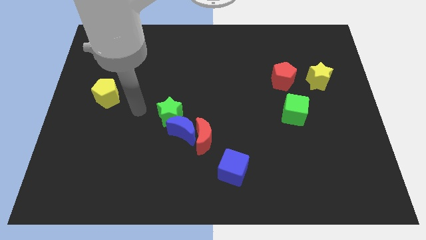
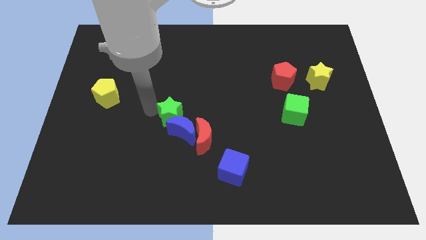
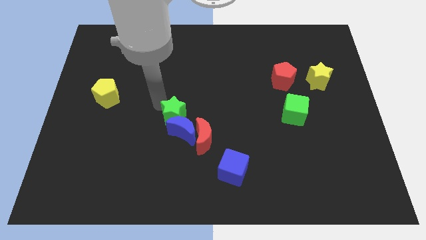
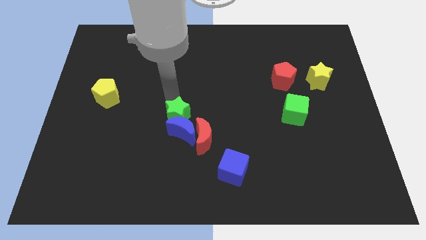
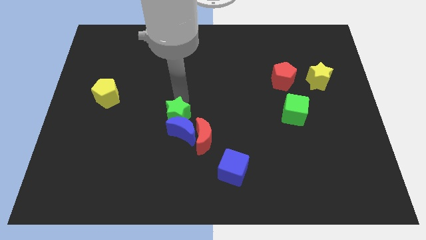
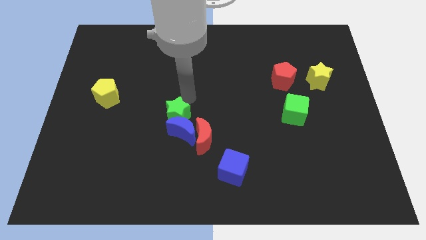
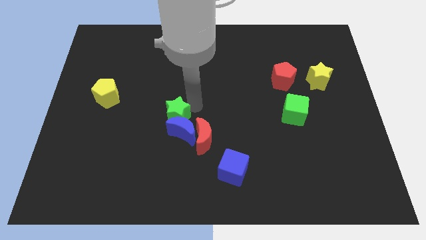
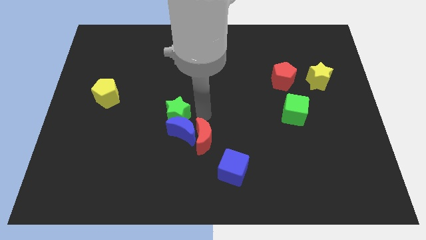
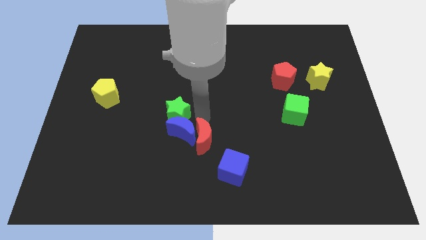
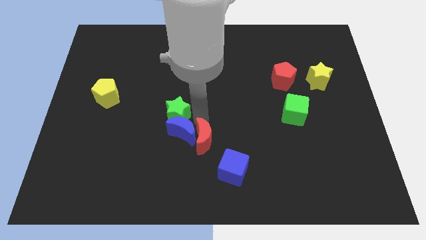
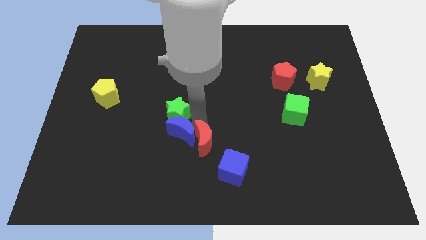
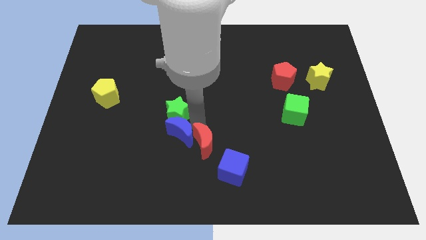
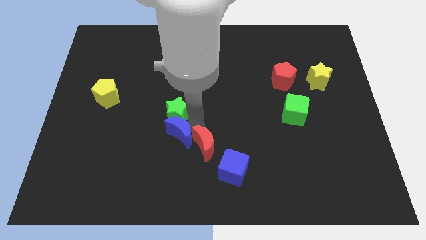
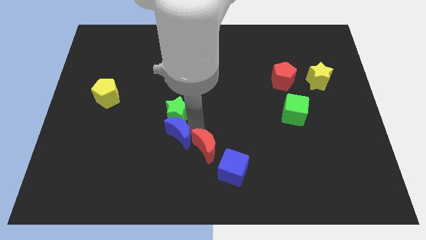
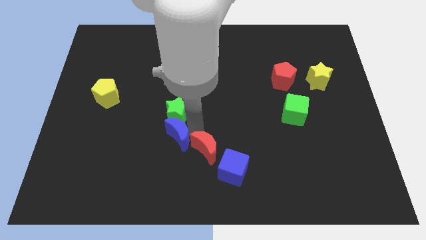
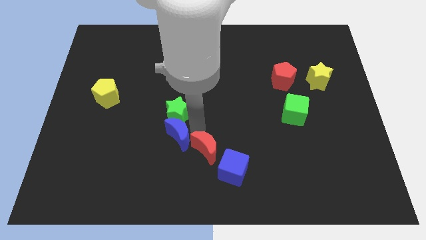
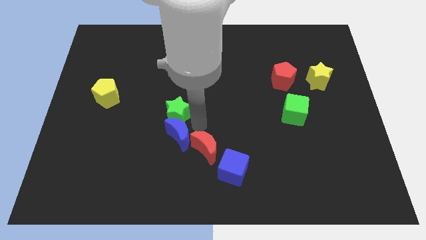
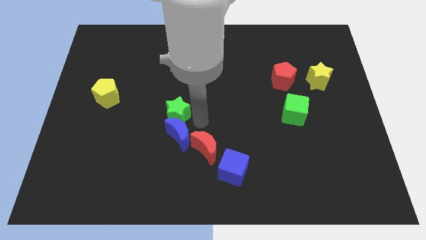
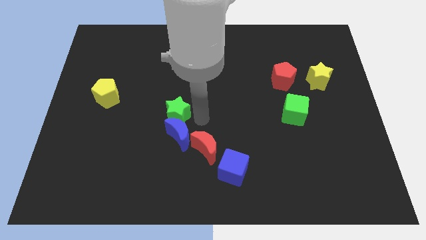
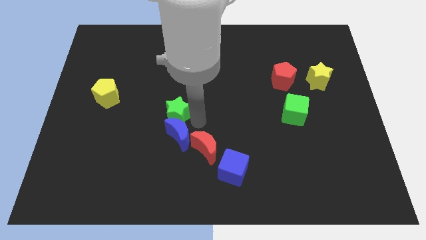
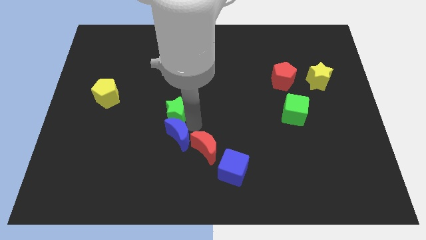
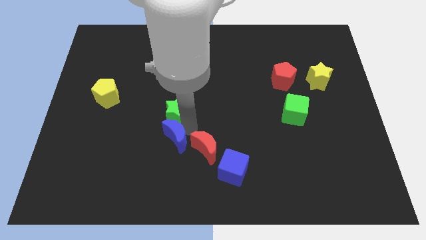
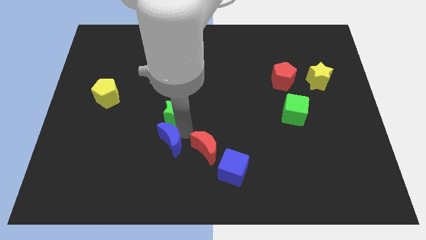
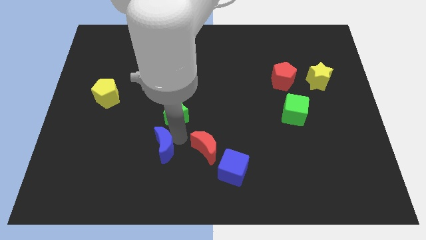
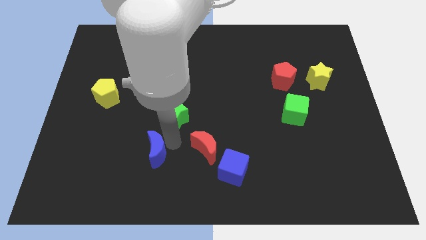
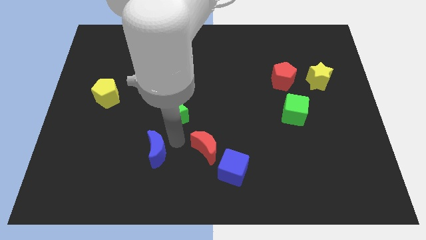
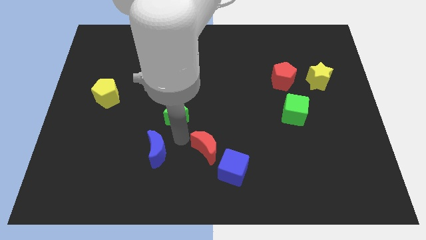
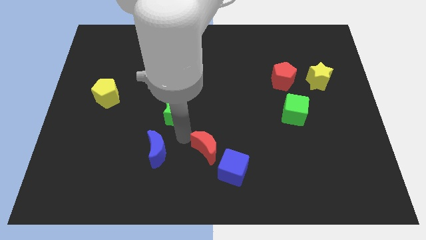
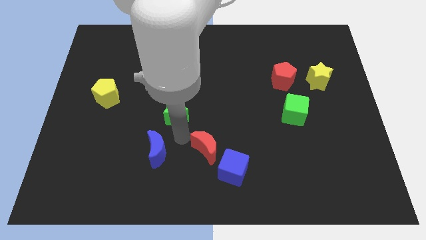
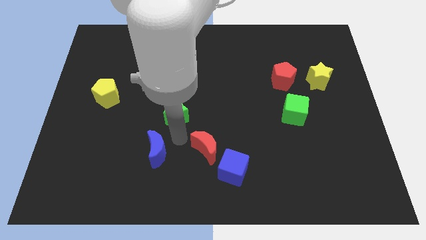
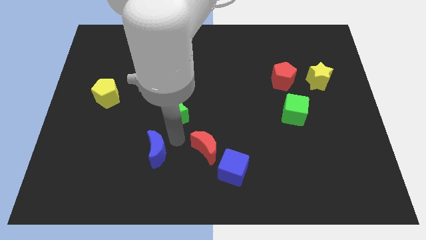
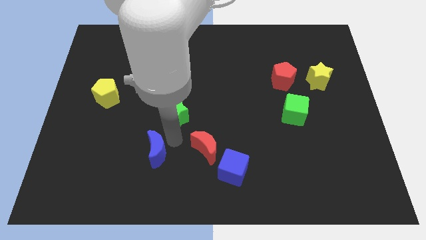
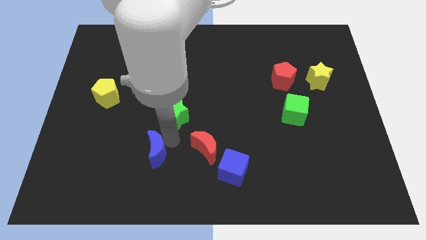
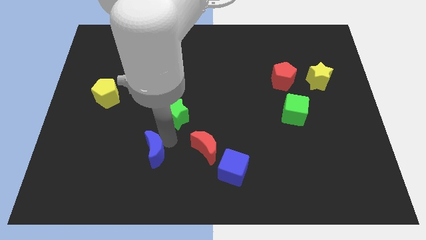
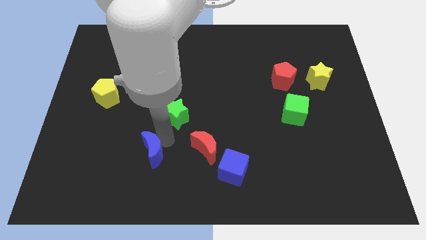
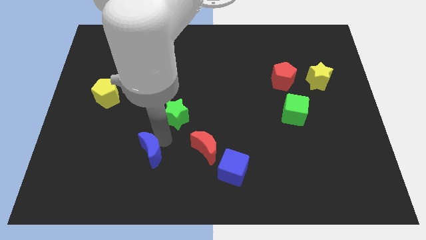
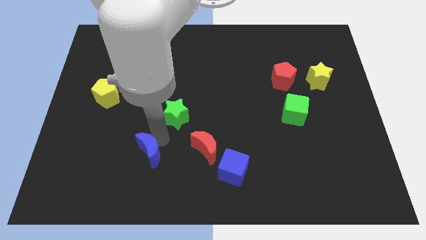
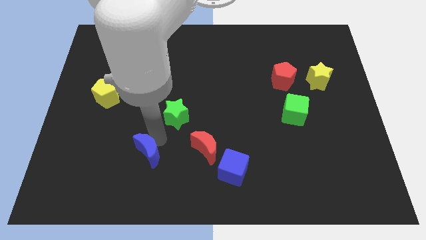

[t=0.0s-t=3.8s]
move the blue moon away from the red moon and green star

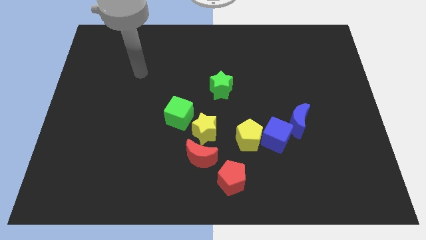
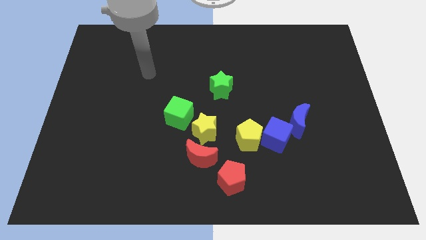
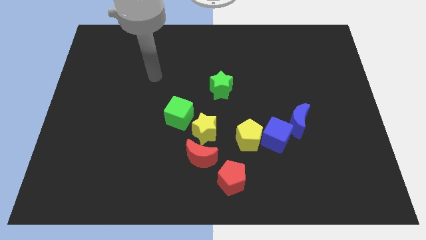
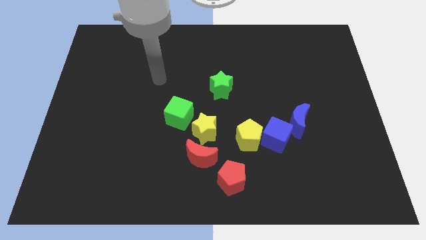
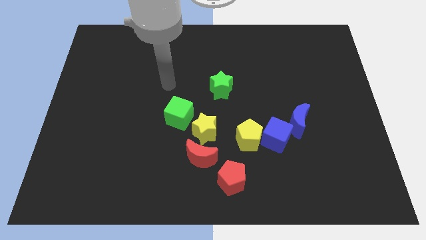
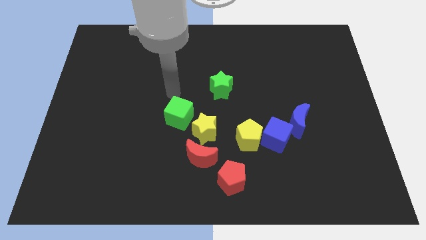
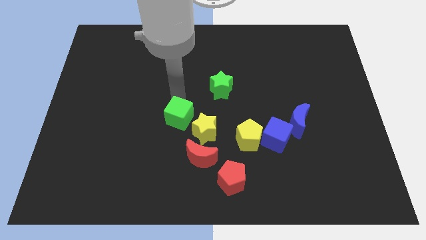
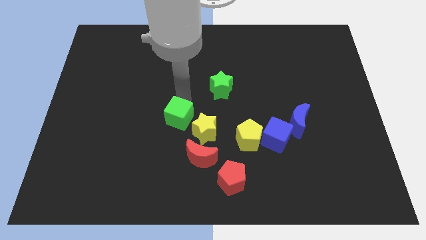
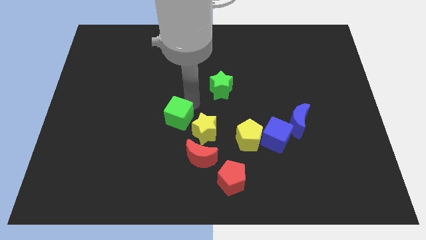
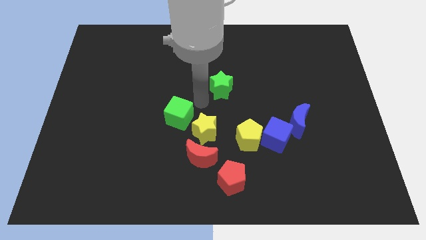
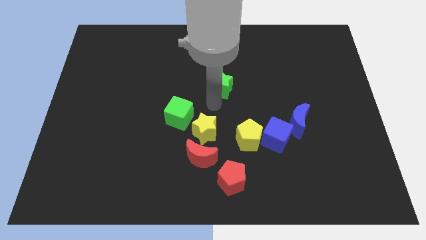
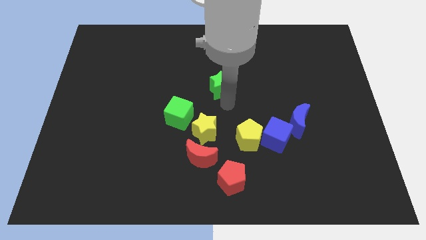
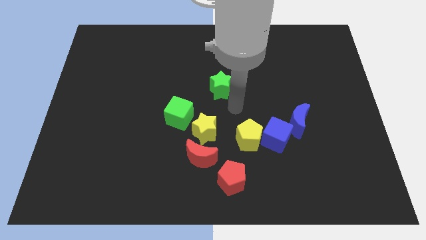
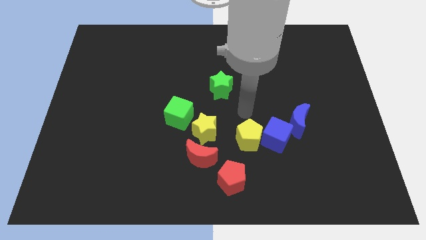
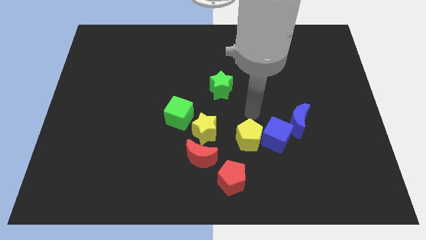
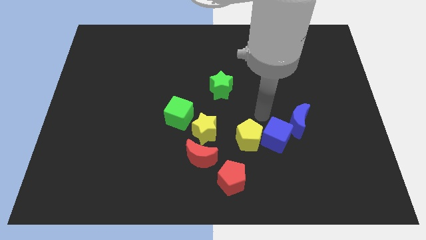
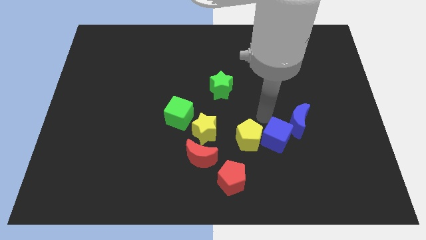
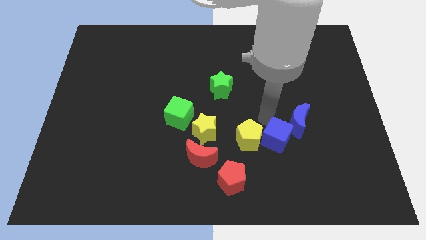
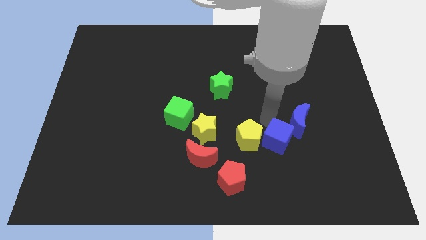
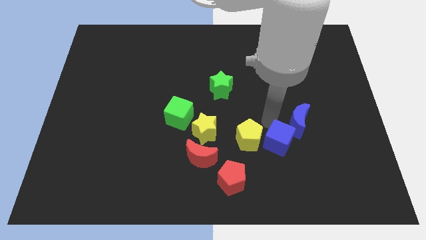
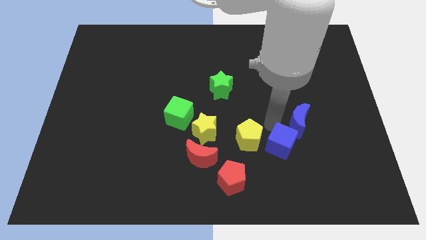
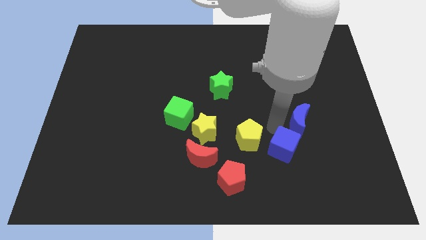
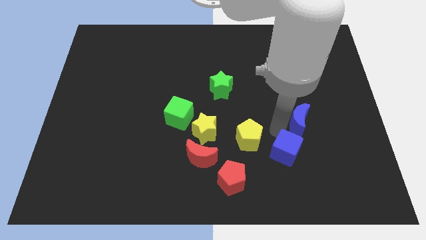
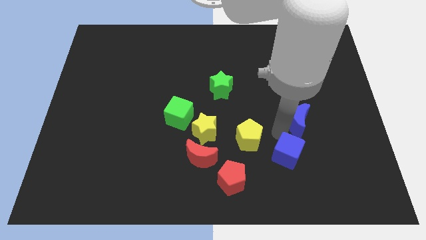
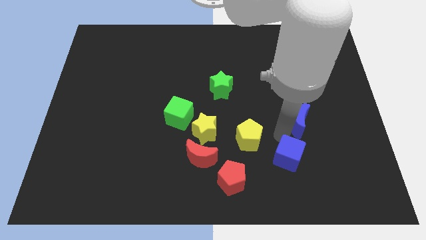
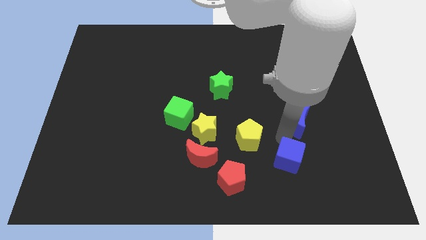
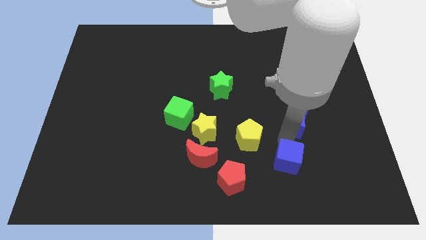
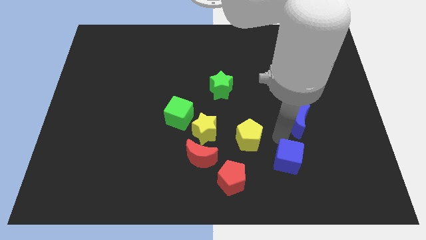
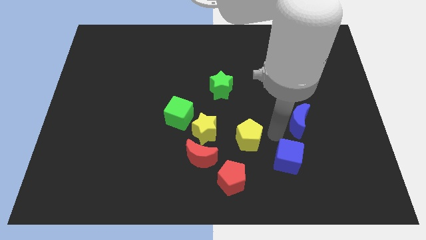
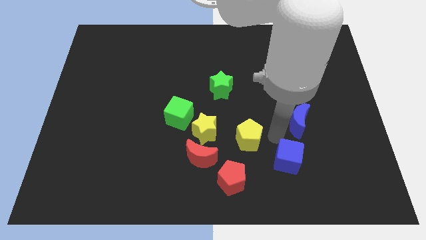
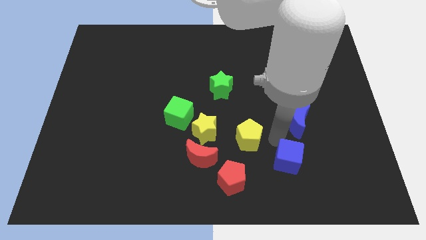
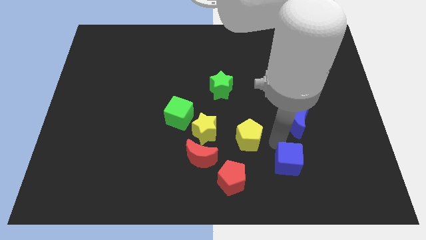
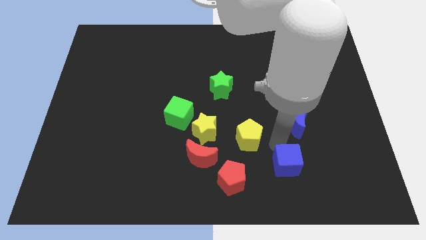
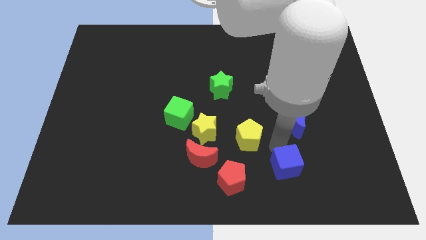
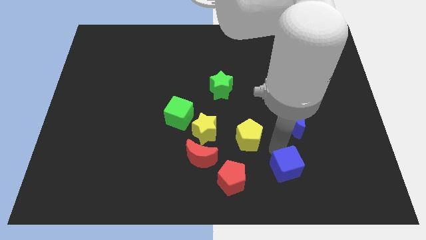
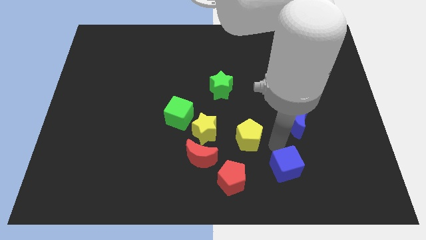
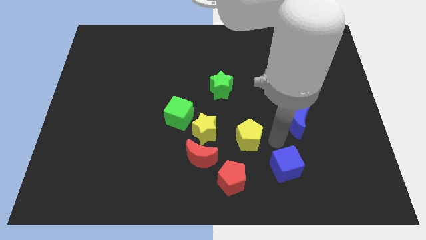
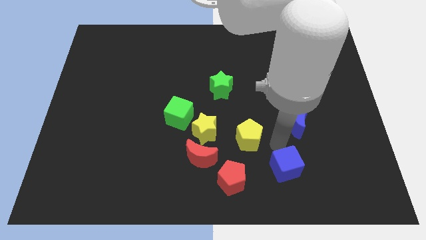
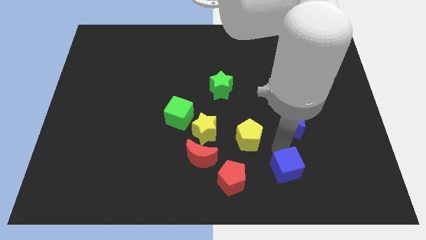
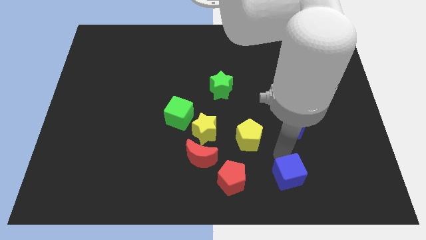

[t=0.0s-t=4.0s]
separate the blue cube from the yellow pentagon and blue moon

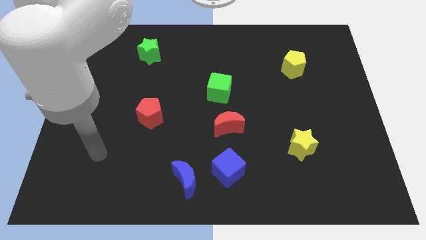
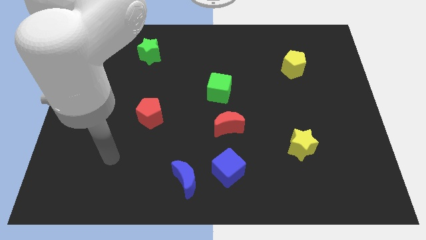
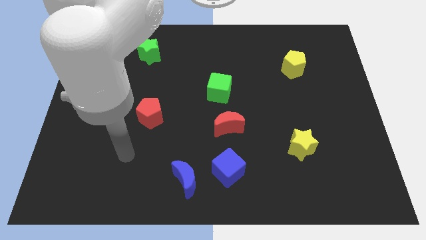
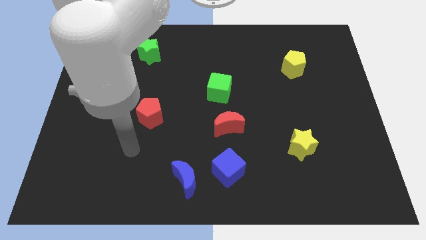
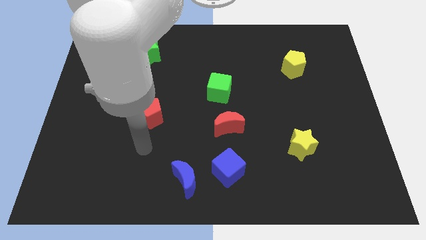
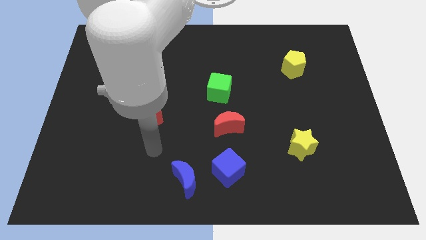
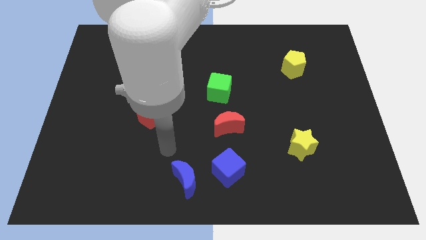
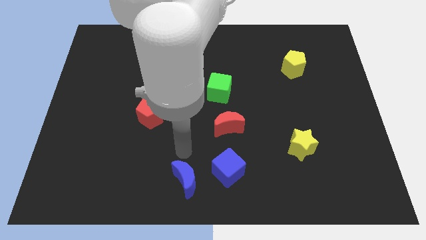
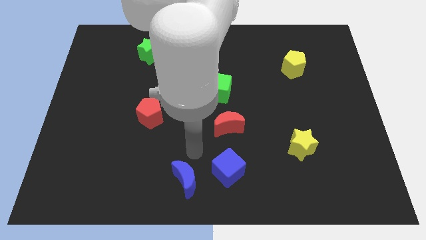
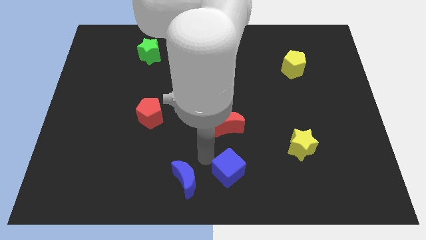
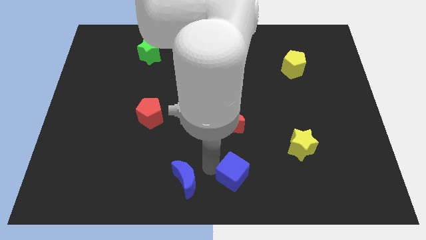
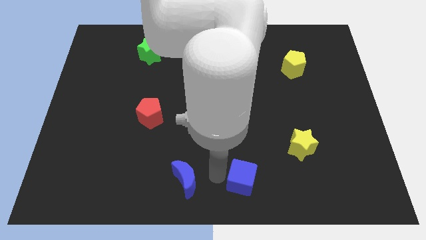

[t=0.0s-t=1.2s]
separate the blue moon from the blue cube

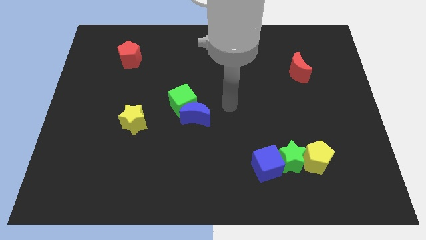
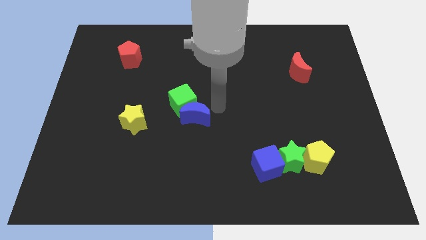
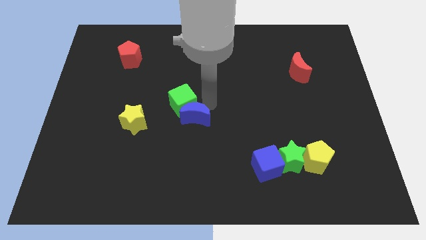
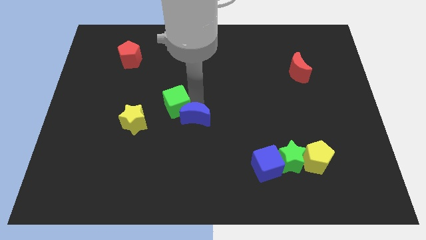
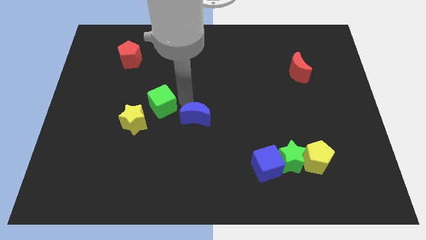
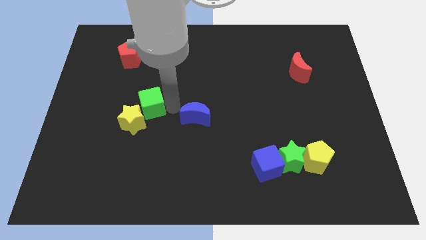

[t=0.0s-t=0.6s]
separate the blue moon from the green cube
